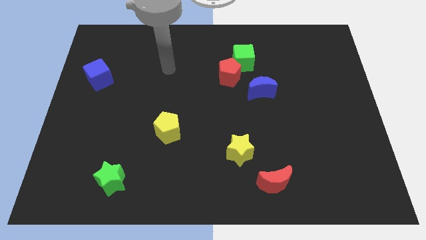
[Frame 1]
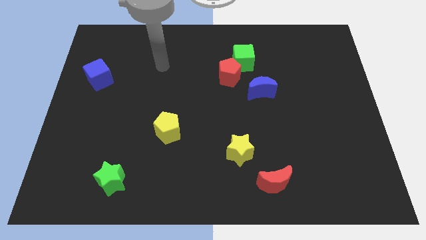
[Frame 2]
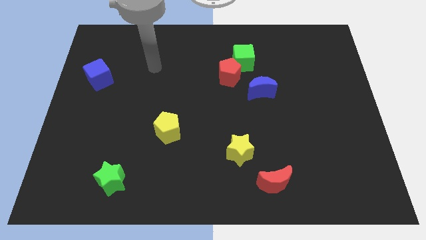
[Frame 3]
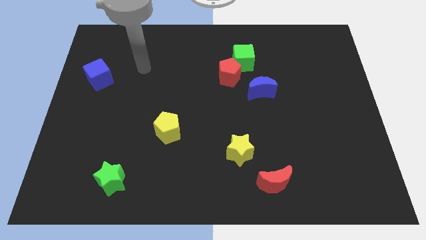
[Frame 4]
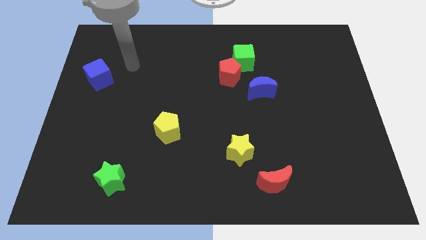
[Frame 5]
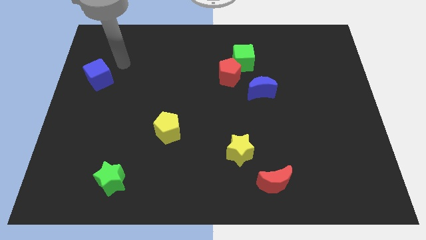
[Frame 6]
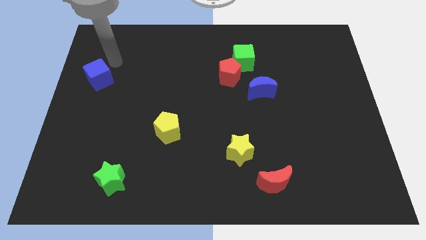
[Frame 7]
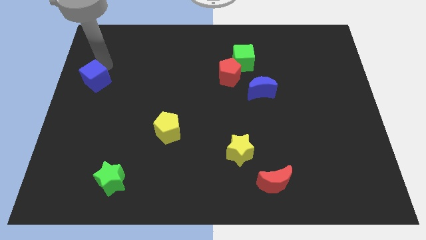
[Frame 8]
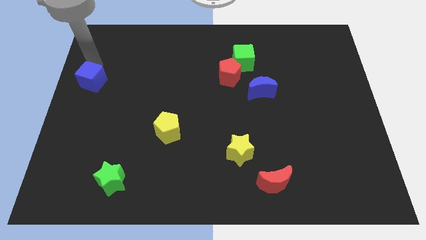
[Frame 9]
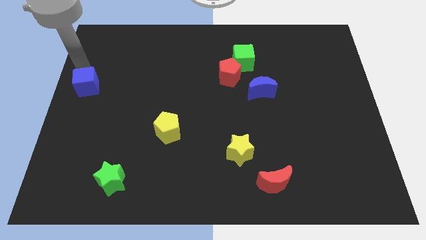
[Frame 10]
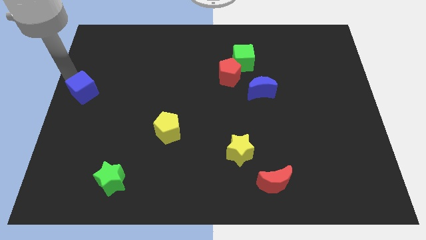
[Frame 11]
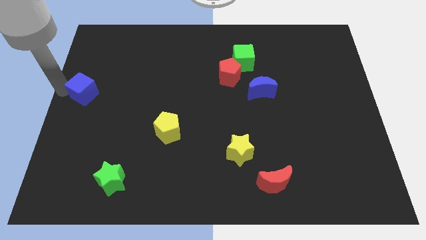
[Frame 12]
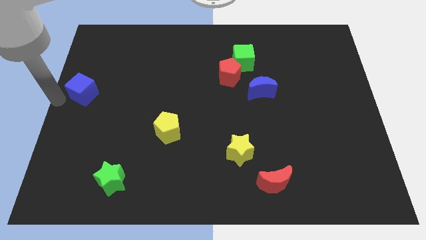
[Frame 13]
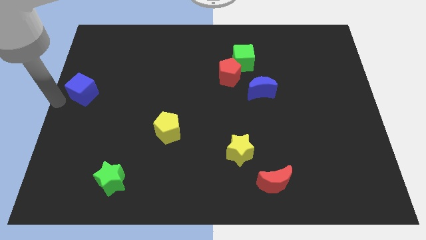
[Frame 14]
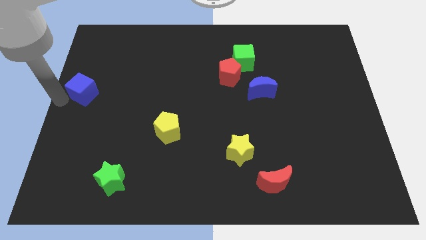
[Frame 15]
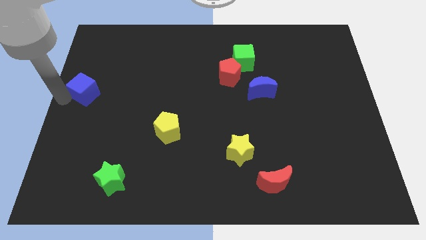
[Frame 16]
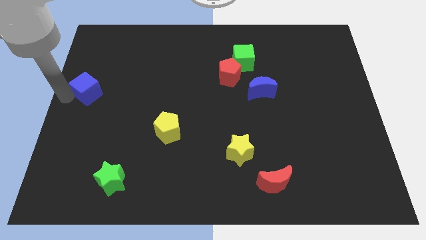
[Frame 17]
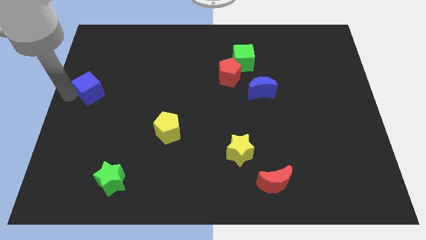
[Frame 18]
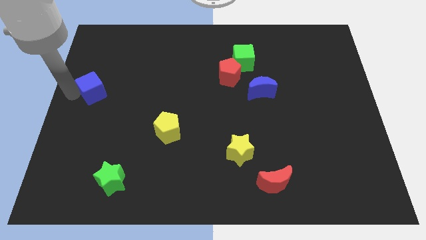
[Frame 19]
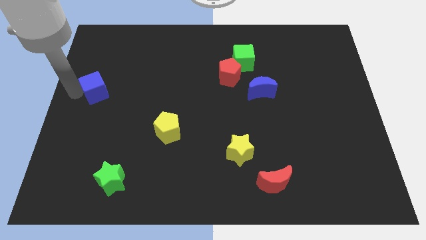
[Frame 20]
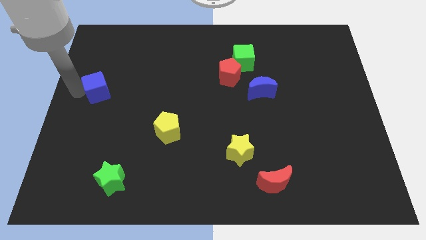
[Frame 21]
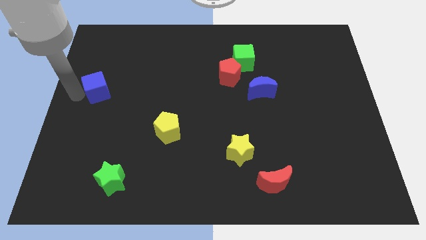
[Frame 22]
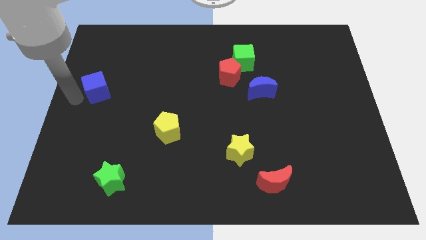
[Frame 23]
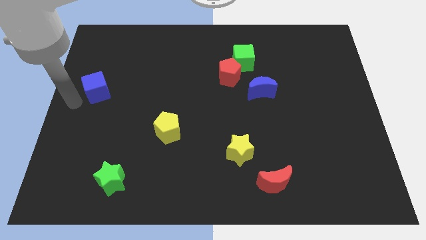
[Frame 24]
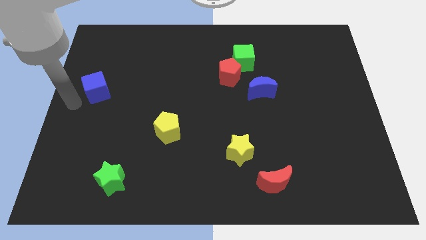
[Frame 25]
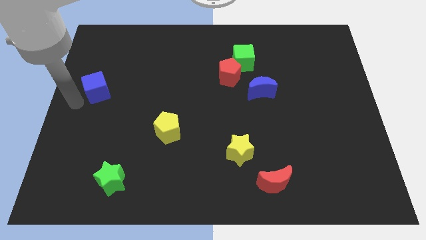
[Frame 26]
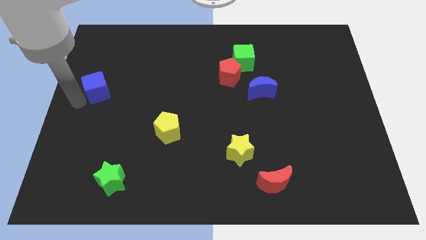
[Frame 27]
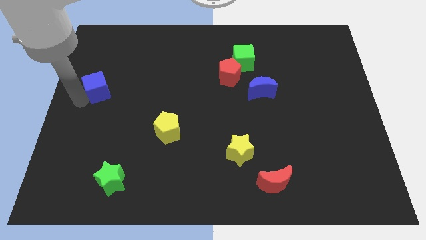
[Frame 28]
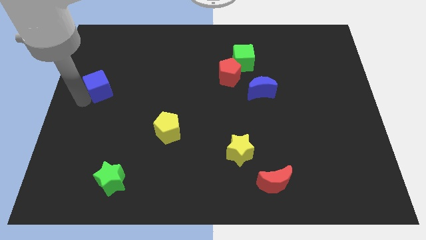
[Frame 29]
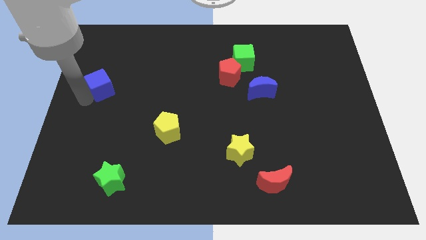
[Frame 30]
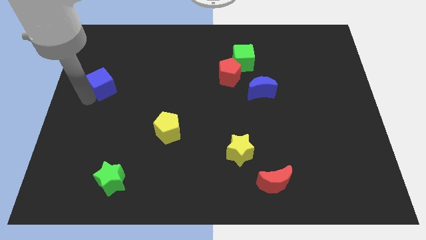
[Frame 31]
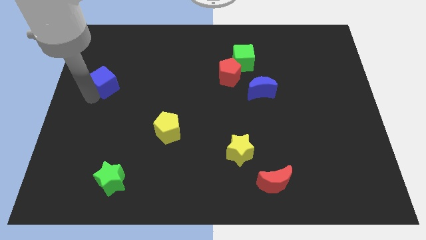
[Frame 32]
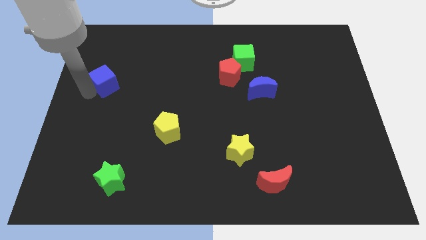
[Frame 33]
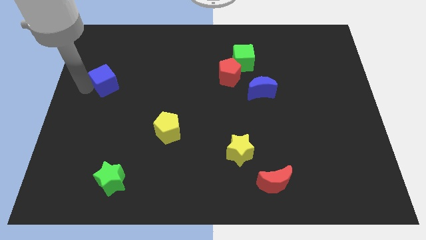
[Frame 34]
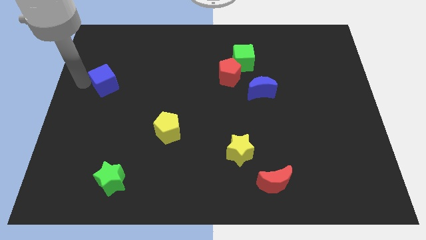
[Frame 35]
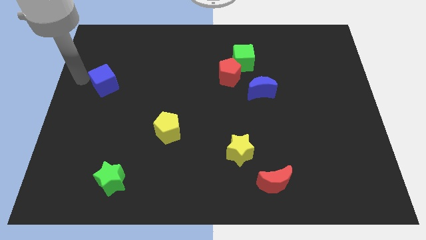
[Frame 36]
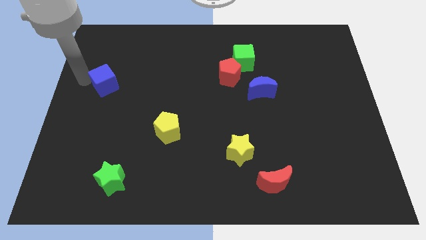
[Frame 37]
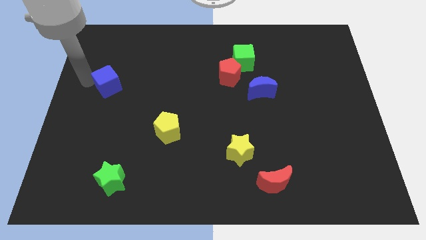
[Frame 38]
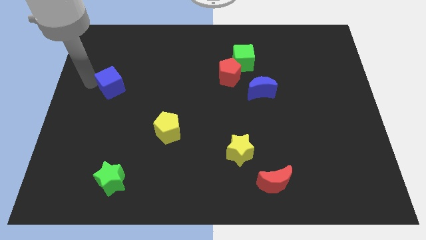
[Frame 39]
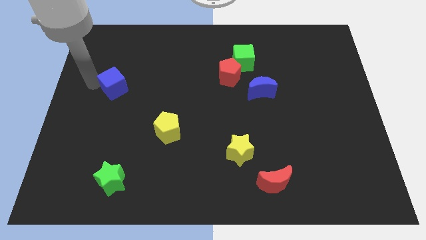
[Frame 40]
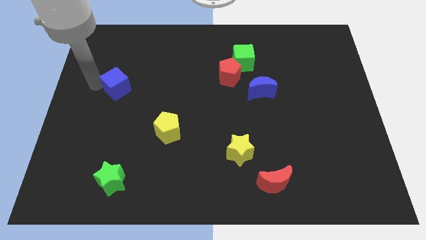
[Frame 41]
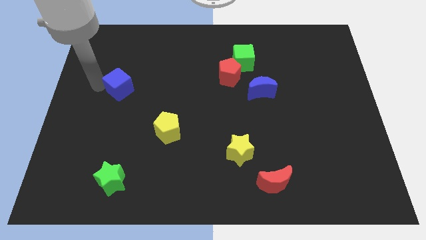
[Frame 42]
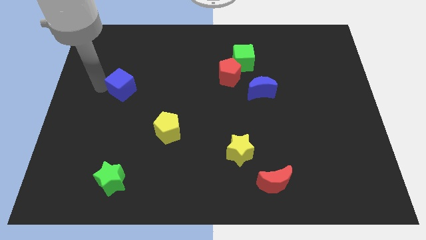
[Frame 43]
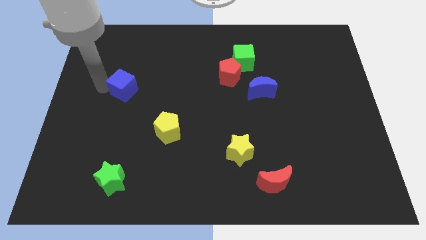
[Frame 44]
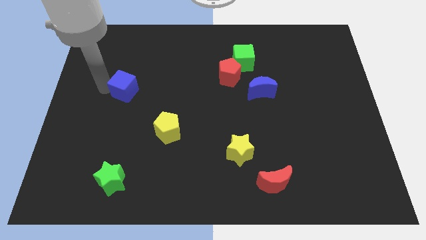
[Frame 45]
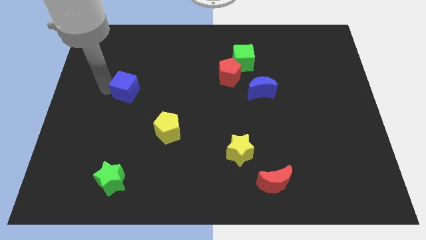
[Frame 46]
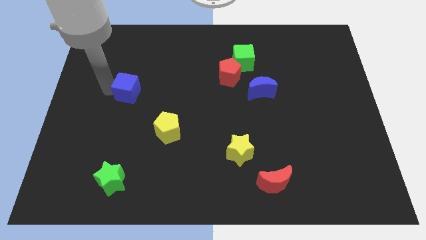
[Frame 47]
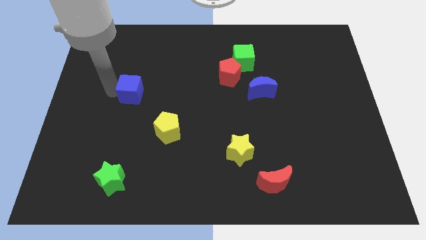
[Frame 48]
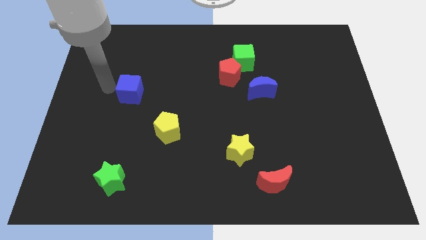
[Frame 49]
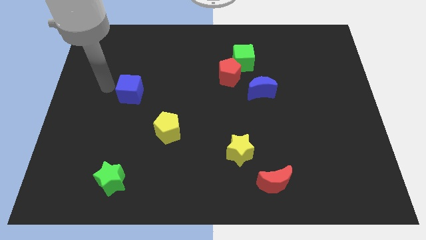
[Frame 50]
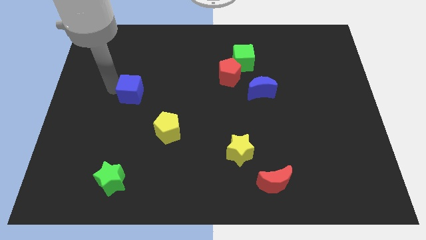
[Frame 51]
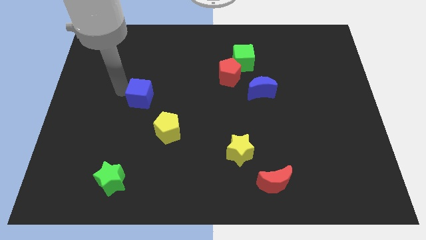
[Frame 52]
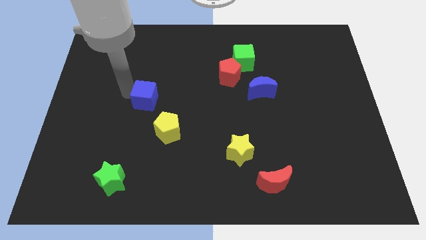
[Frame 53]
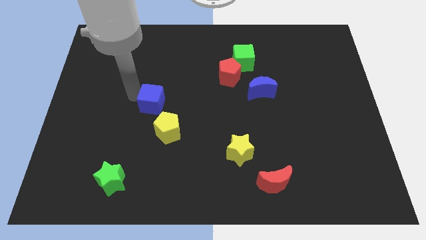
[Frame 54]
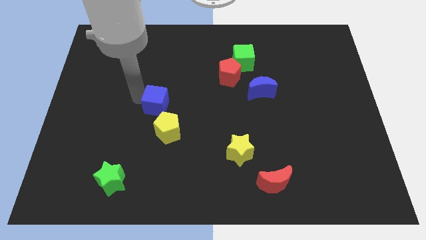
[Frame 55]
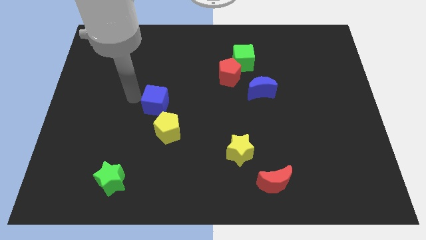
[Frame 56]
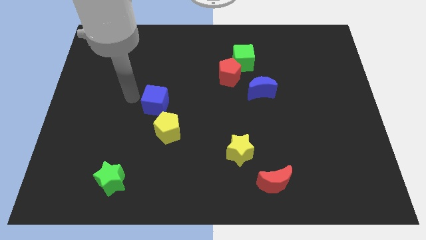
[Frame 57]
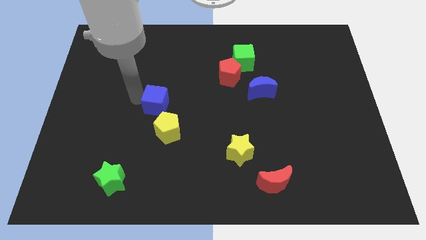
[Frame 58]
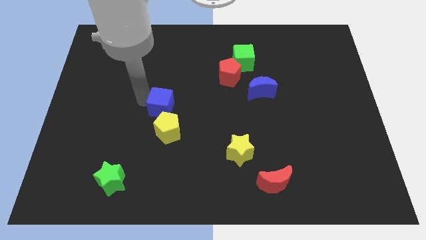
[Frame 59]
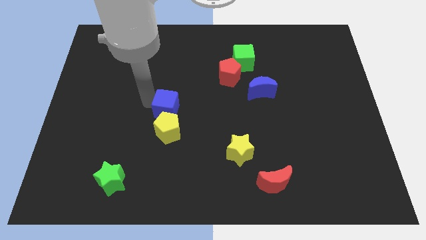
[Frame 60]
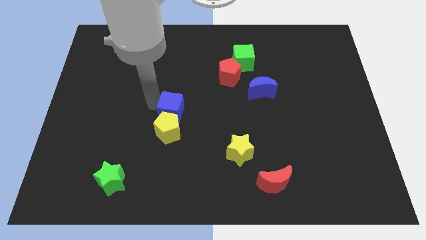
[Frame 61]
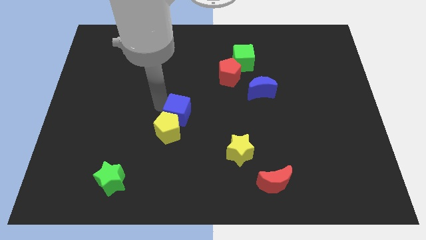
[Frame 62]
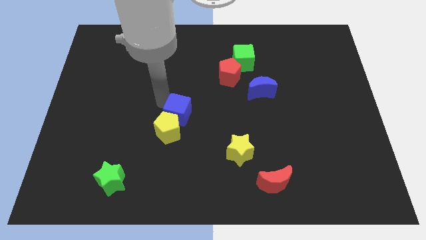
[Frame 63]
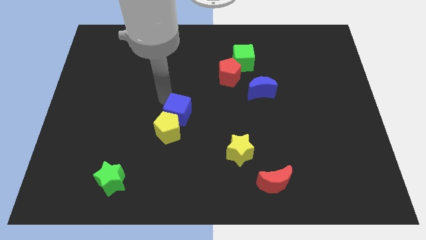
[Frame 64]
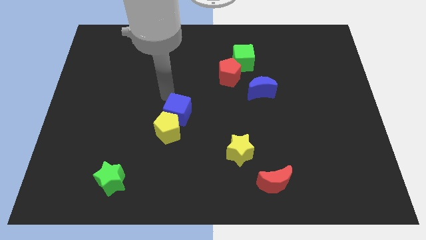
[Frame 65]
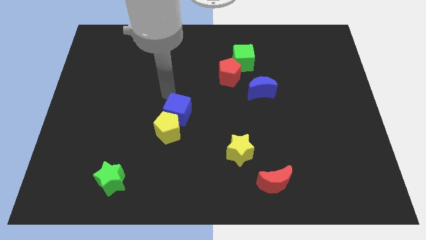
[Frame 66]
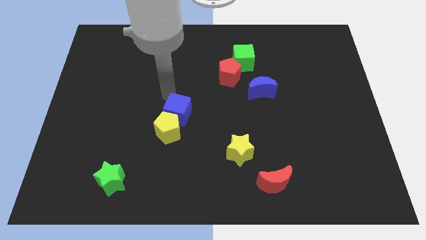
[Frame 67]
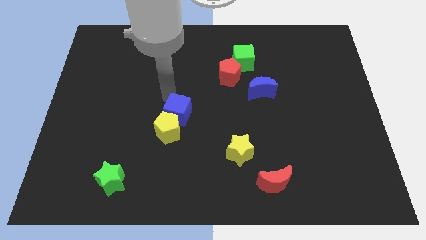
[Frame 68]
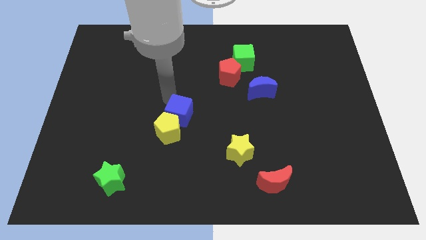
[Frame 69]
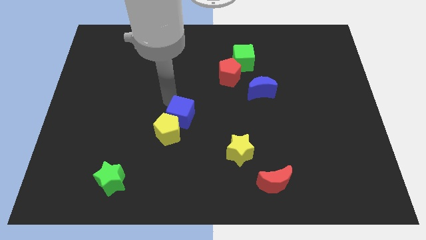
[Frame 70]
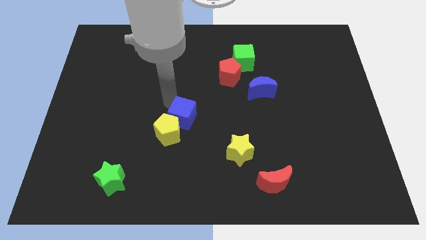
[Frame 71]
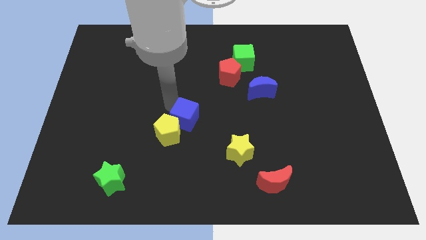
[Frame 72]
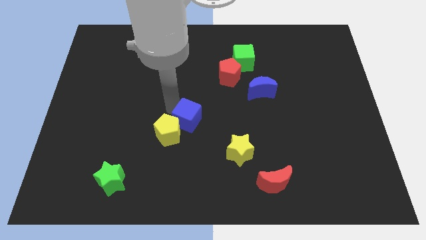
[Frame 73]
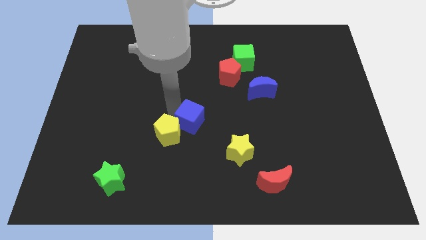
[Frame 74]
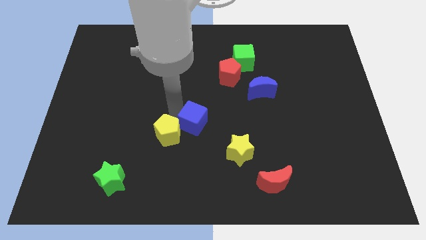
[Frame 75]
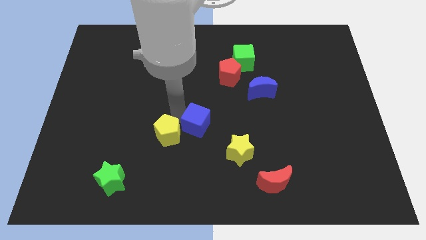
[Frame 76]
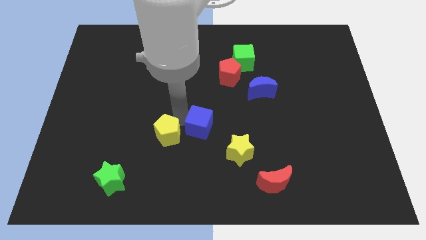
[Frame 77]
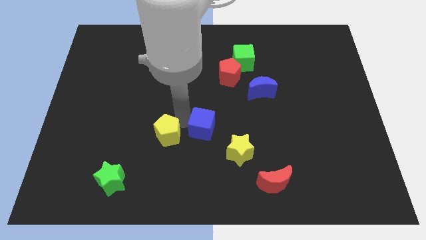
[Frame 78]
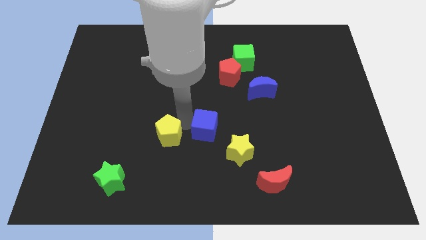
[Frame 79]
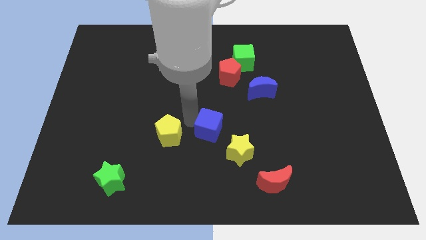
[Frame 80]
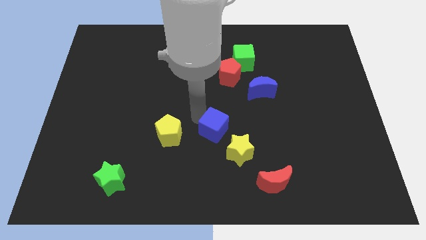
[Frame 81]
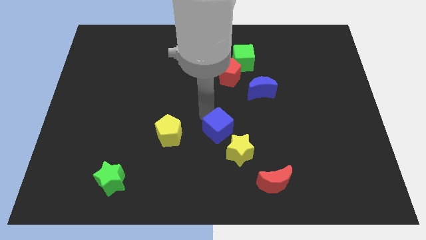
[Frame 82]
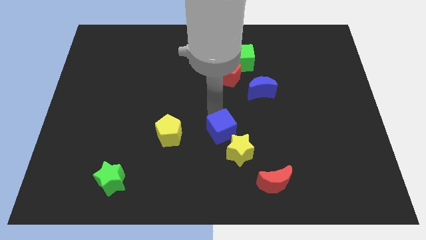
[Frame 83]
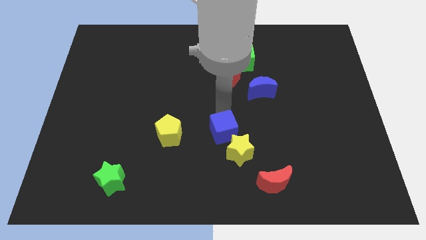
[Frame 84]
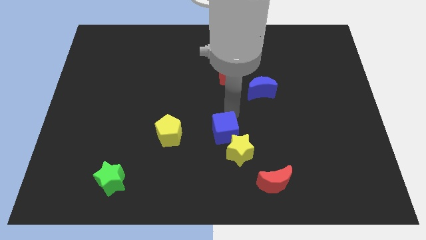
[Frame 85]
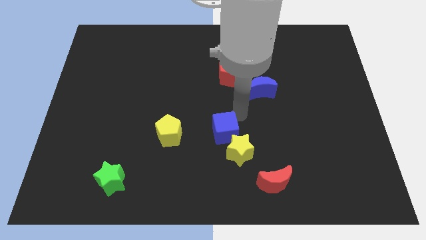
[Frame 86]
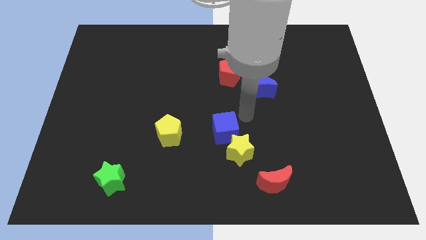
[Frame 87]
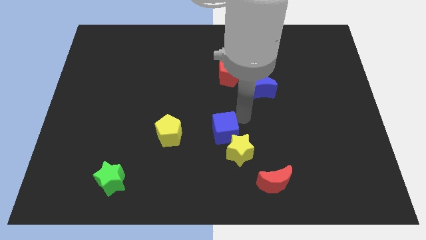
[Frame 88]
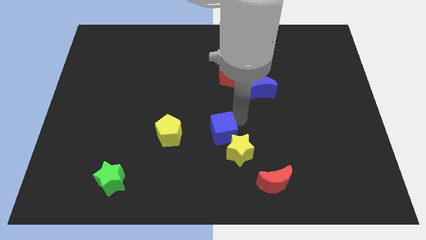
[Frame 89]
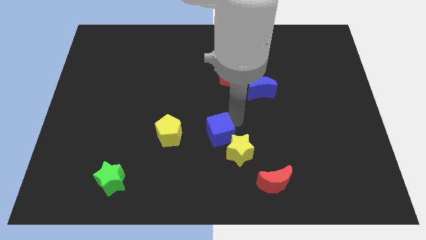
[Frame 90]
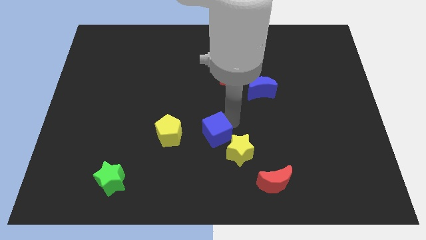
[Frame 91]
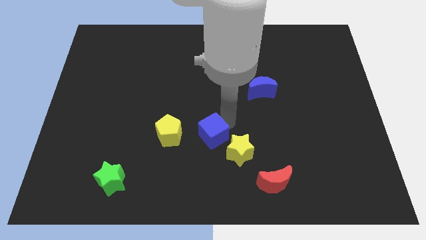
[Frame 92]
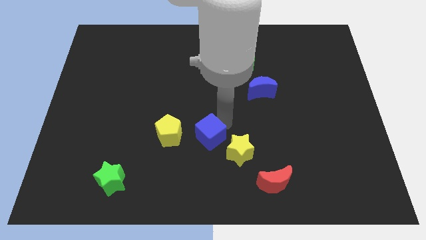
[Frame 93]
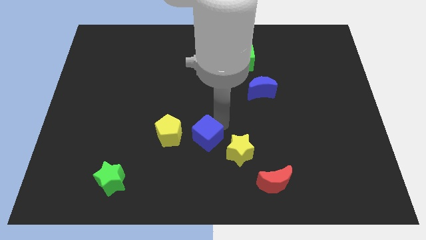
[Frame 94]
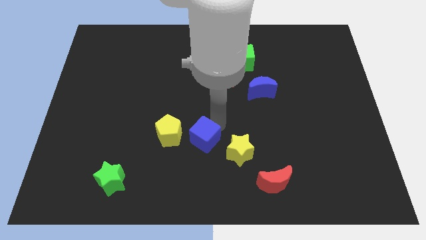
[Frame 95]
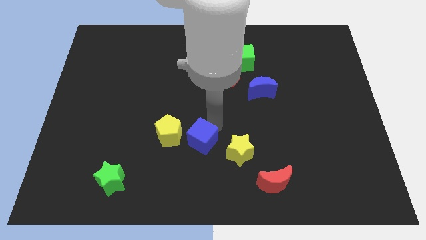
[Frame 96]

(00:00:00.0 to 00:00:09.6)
put the blue cube diagonally down and to the right of the yellow pentagon
